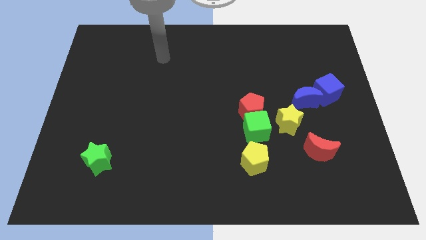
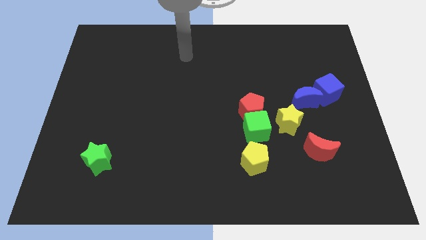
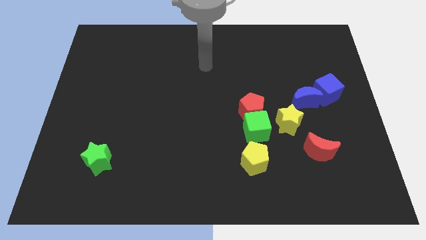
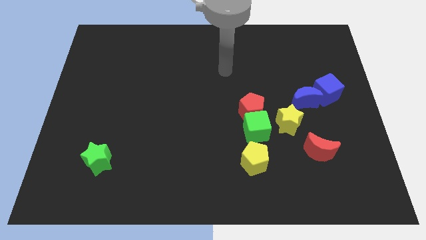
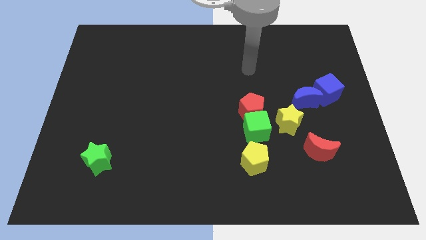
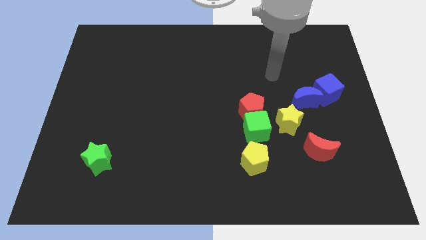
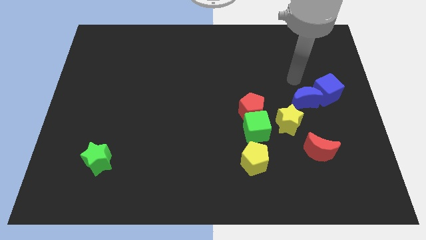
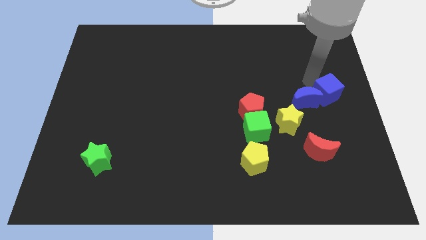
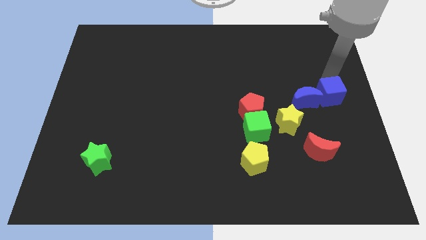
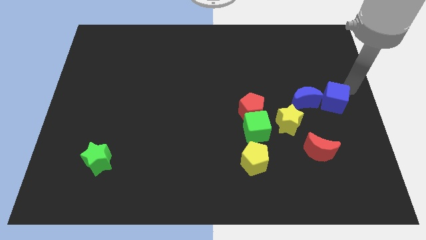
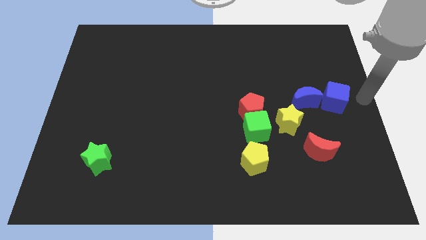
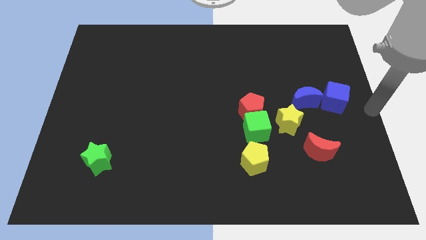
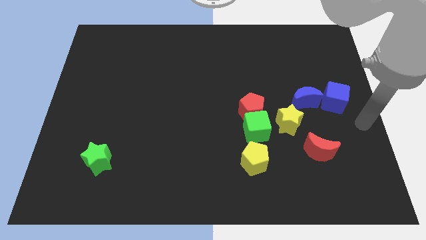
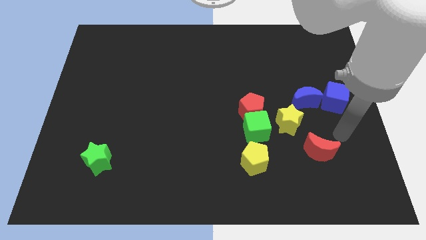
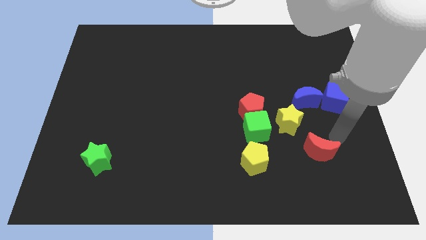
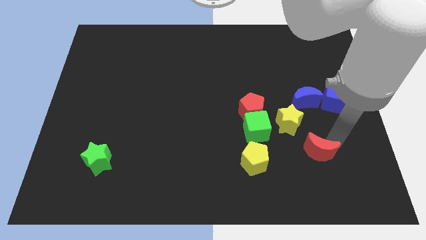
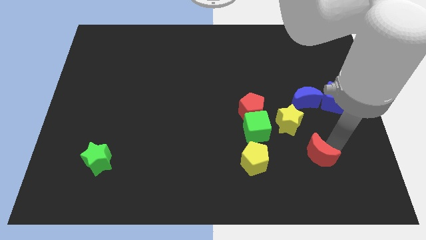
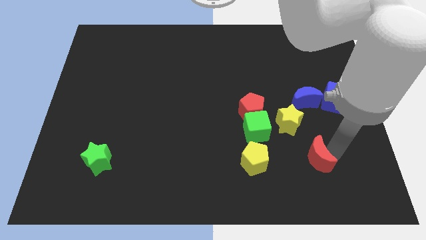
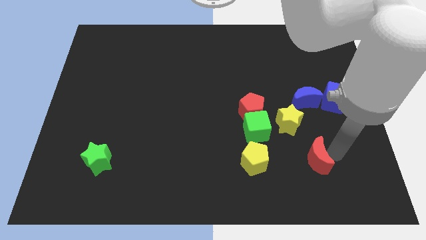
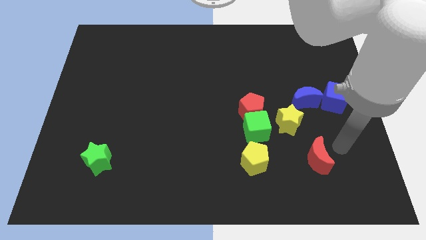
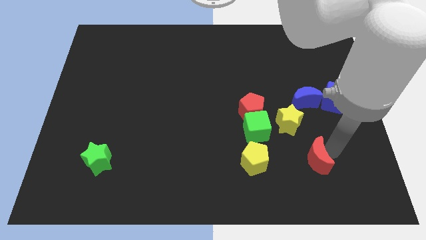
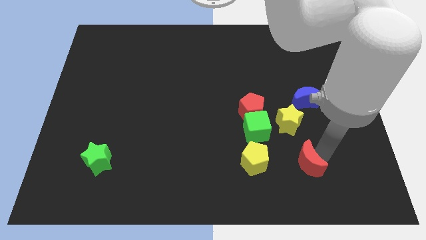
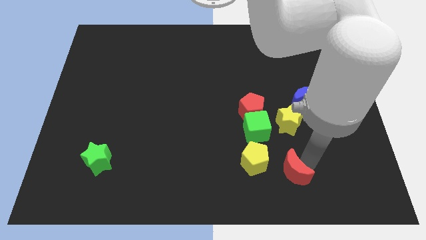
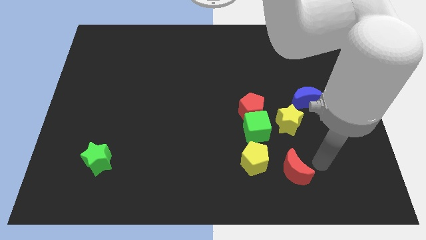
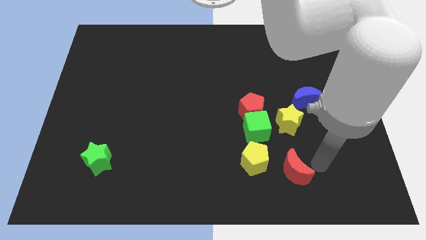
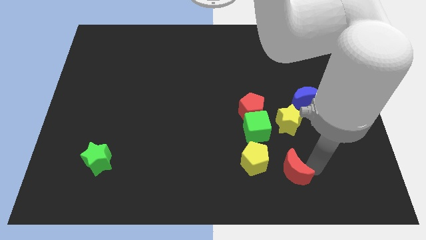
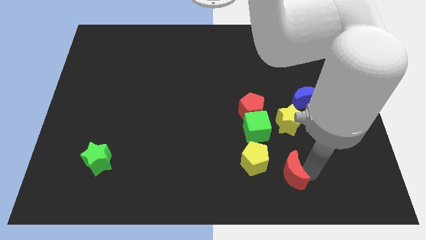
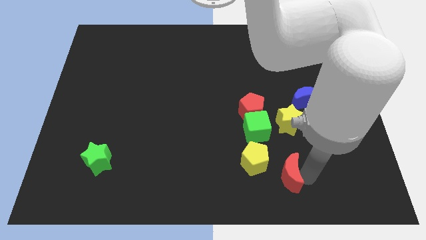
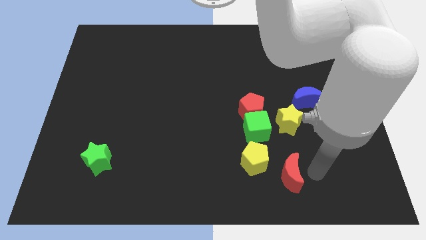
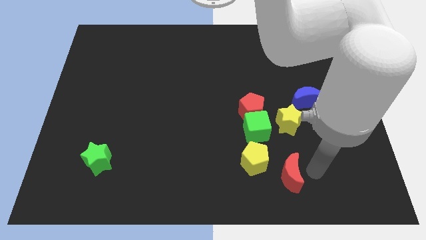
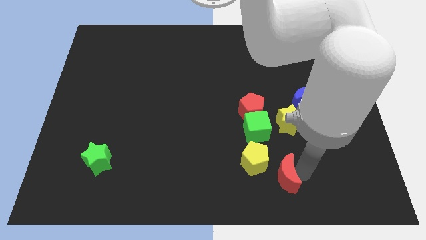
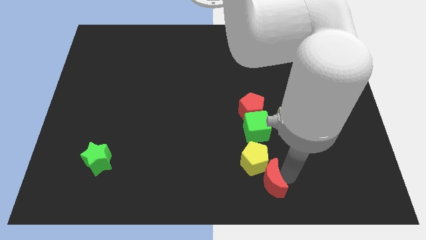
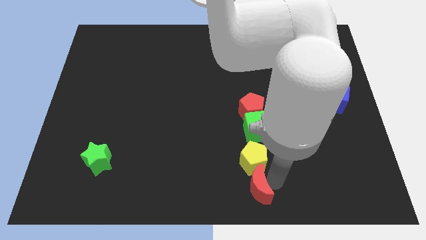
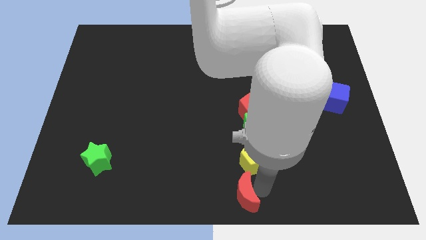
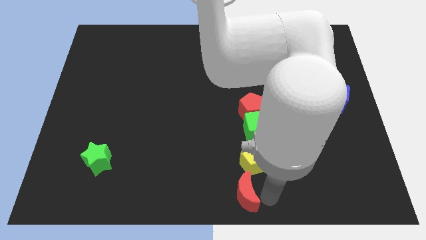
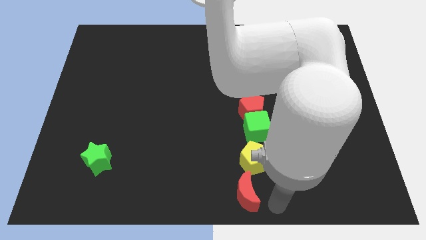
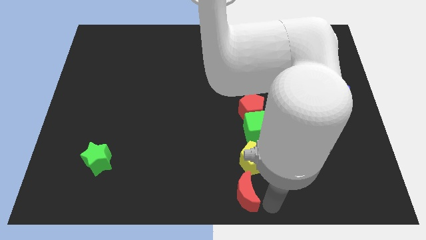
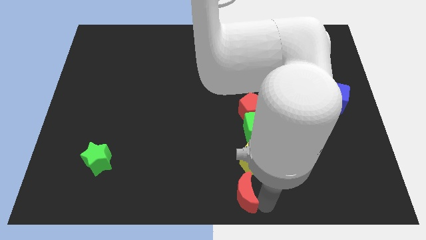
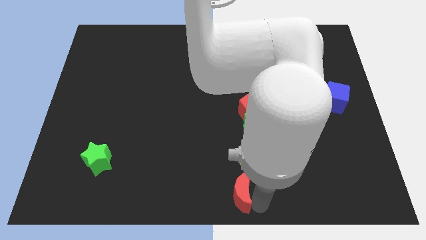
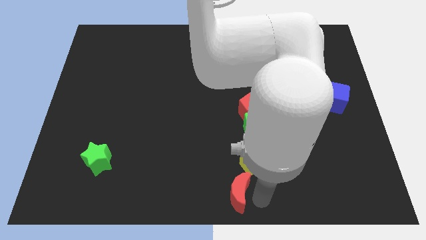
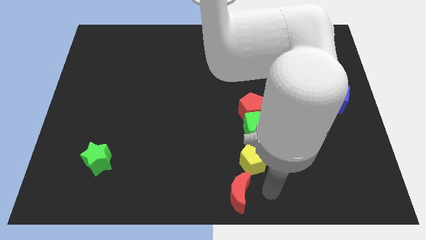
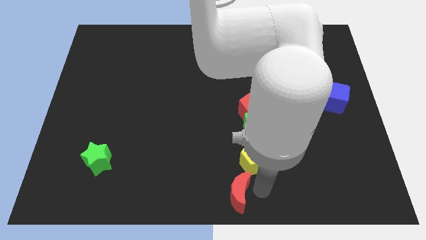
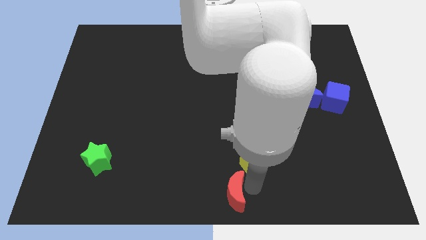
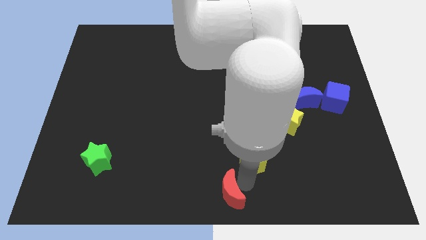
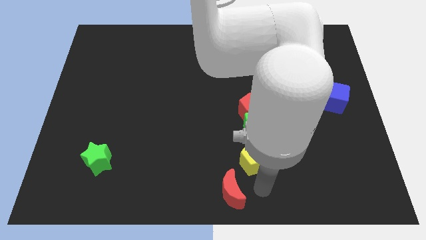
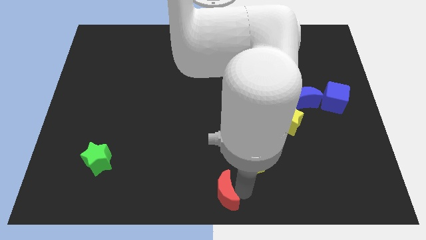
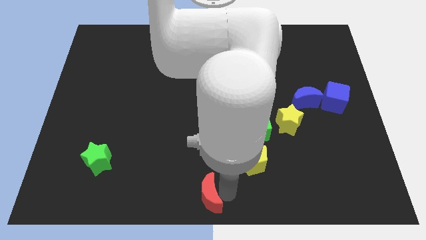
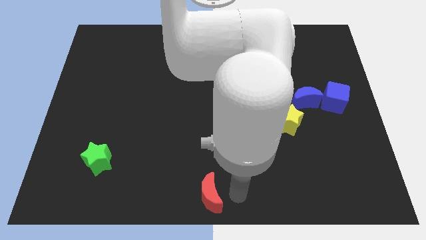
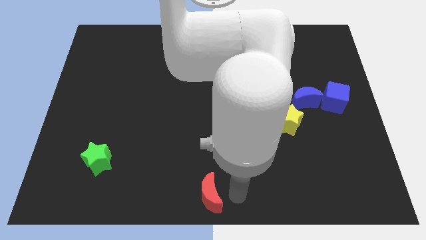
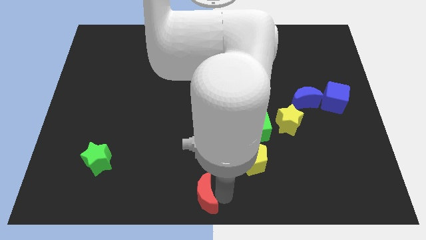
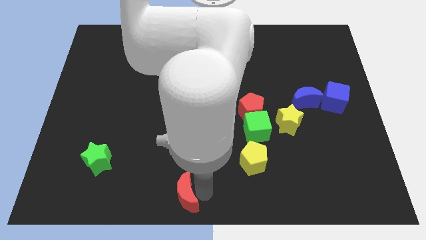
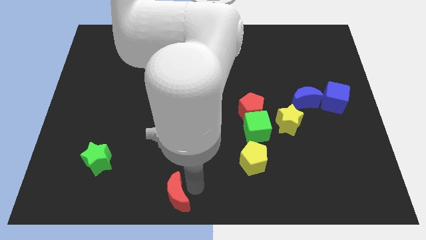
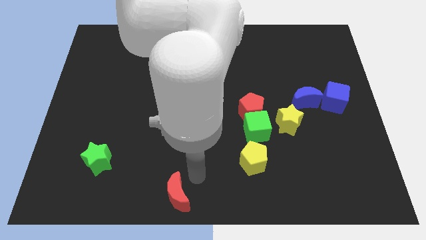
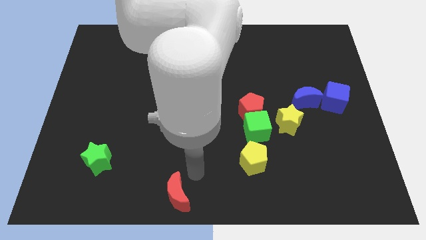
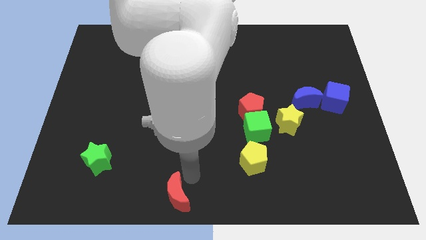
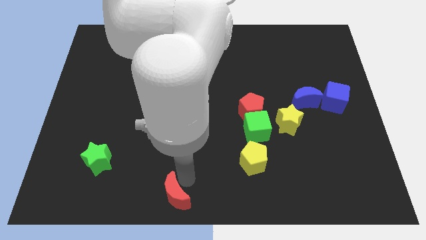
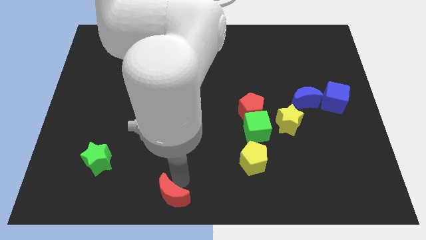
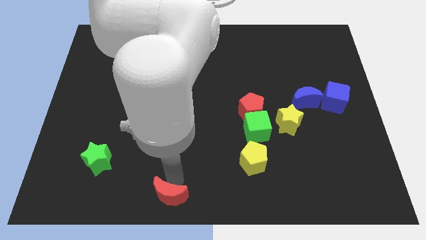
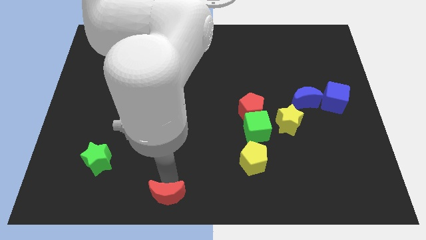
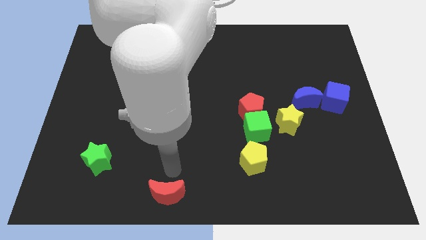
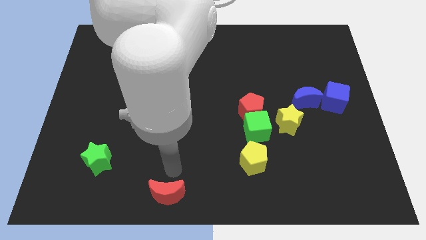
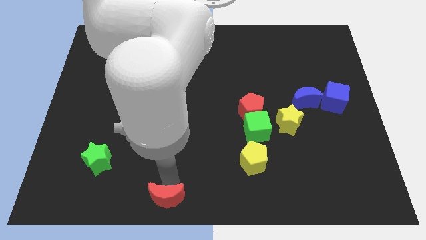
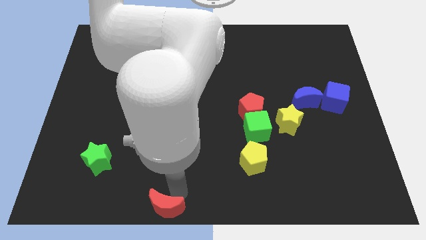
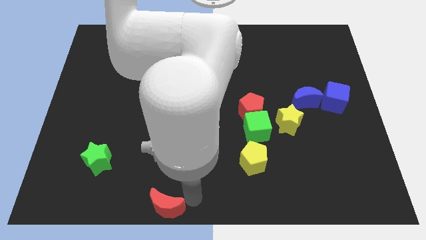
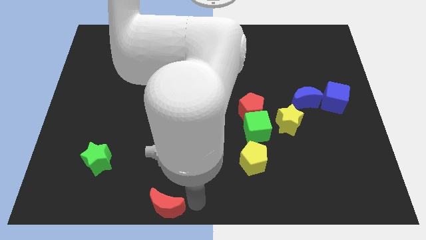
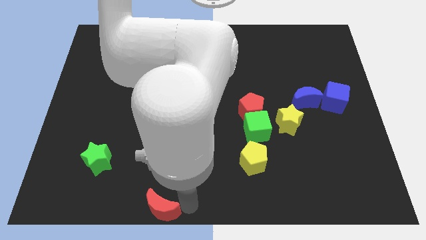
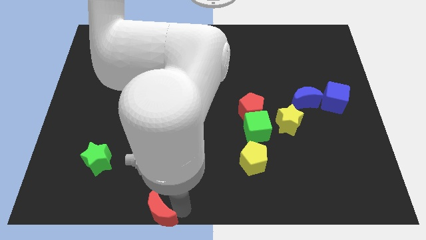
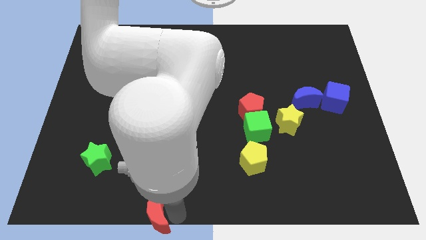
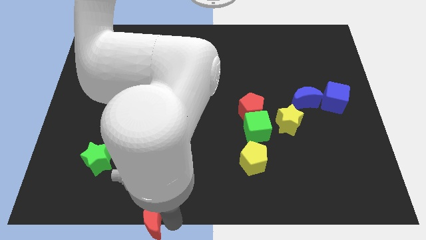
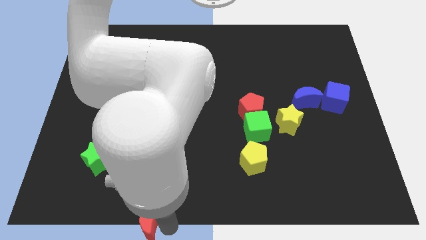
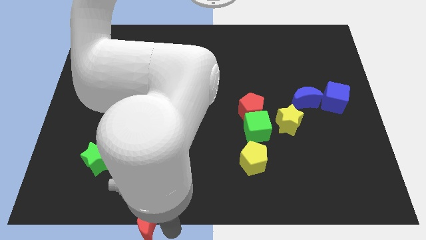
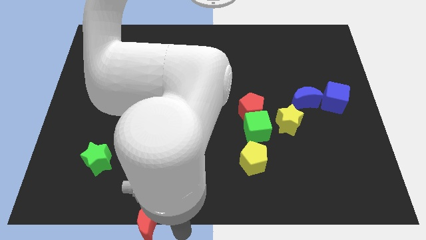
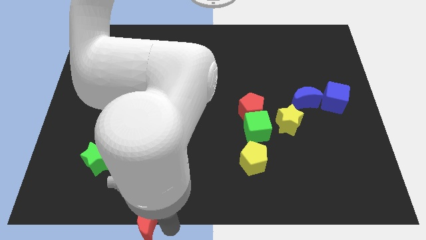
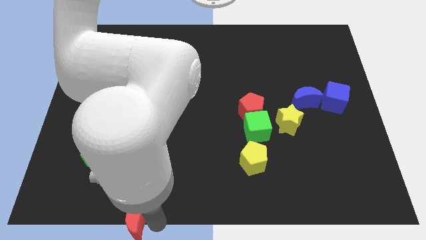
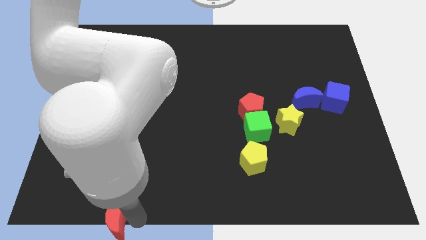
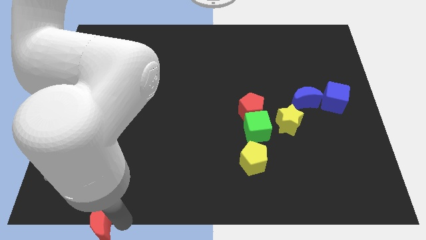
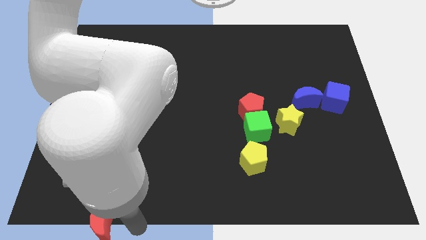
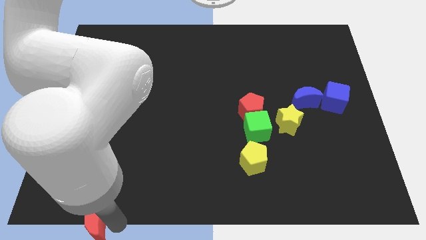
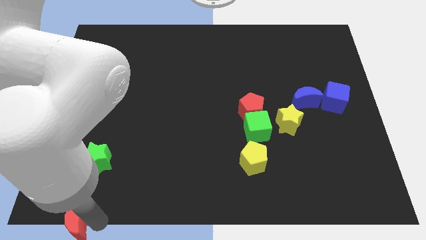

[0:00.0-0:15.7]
push the red moon to the bottom left corner
